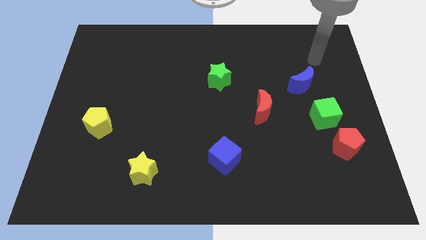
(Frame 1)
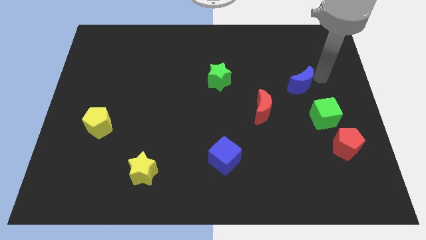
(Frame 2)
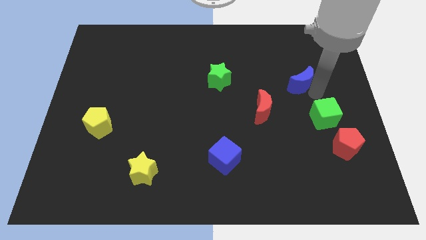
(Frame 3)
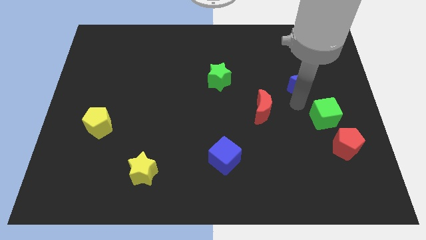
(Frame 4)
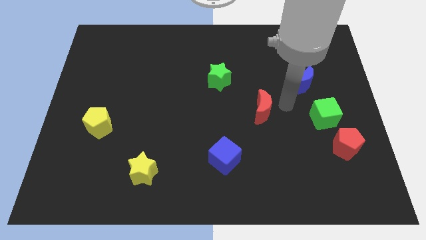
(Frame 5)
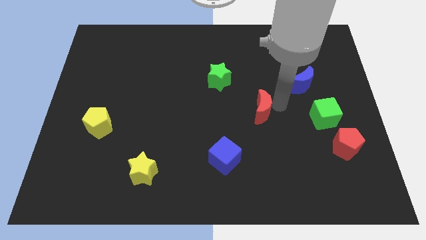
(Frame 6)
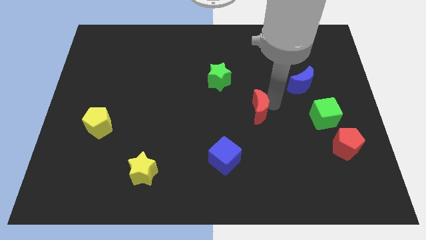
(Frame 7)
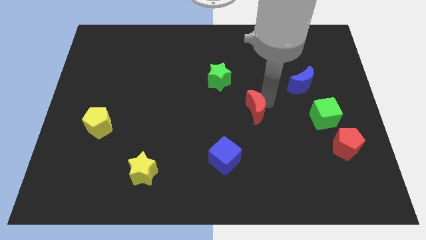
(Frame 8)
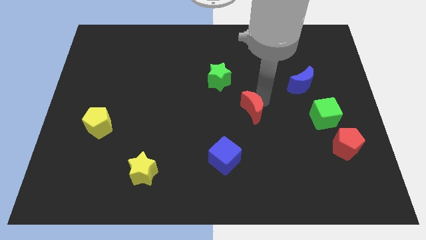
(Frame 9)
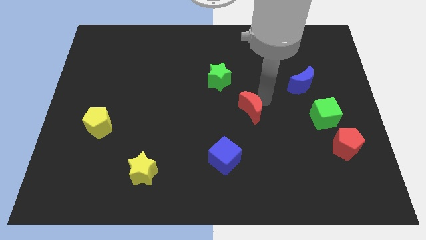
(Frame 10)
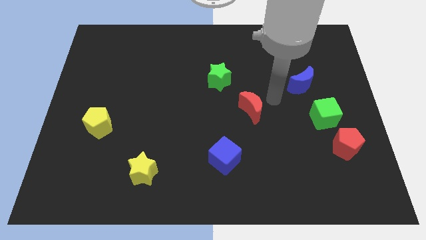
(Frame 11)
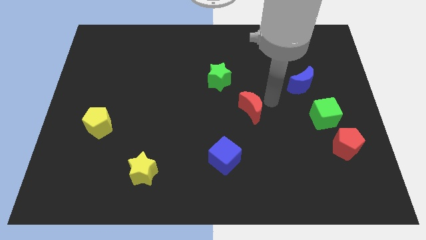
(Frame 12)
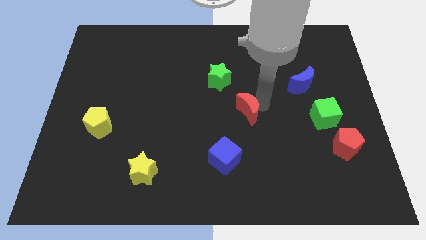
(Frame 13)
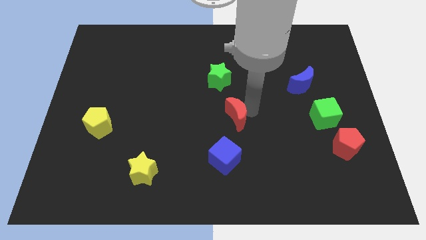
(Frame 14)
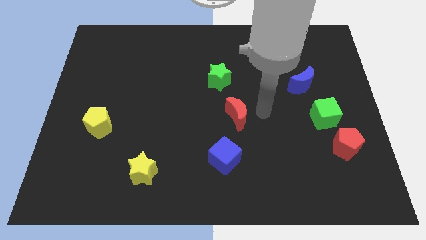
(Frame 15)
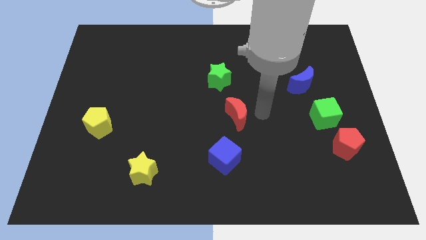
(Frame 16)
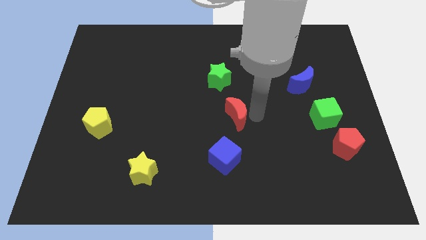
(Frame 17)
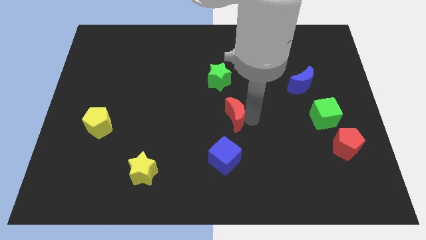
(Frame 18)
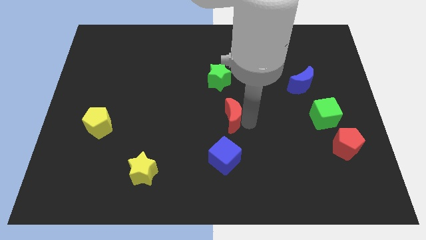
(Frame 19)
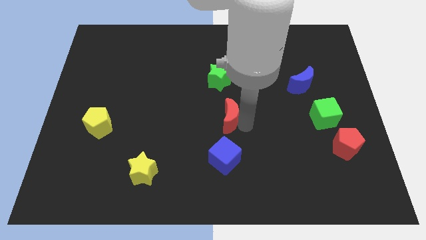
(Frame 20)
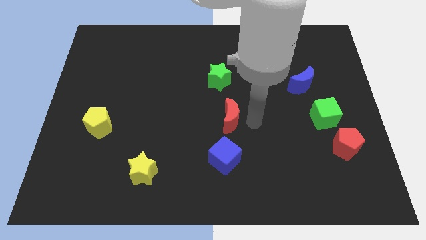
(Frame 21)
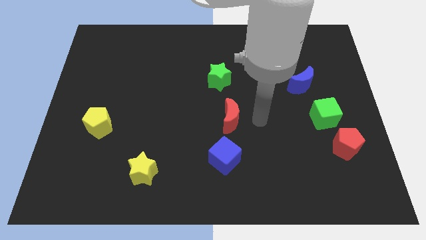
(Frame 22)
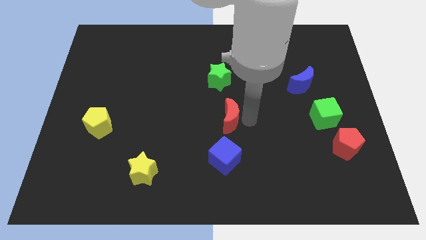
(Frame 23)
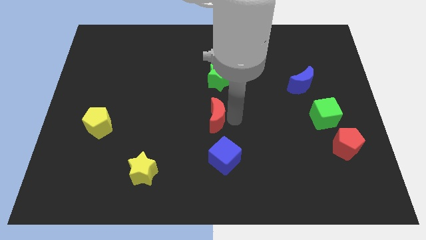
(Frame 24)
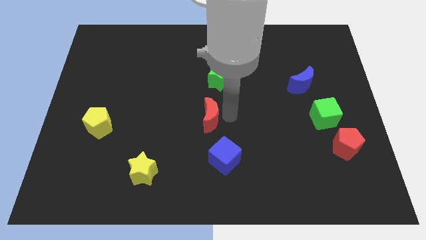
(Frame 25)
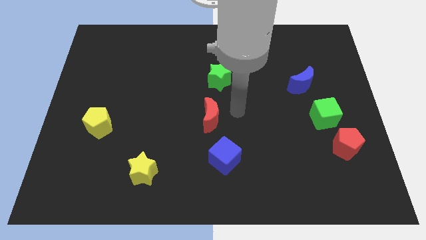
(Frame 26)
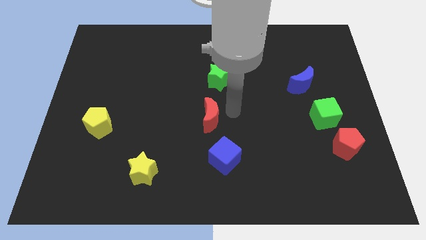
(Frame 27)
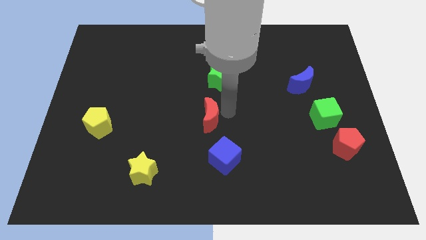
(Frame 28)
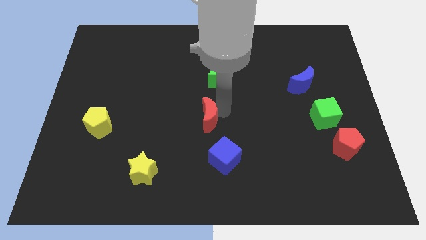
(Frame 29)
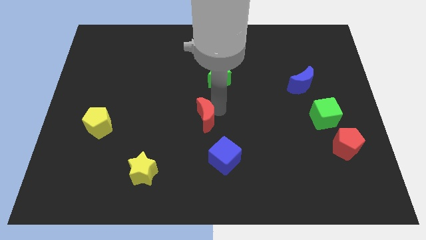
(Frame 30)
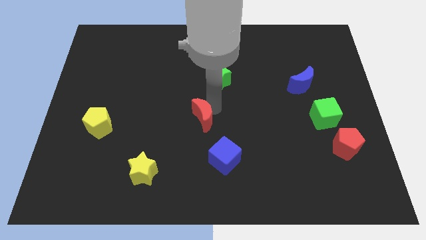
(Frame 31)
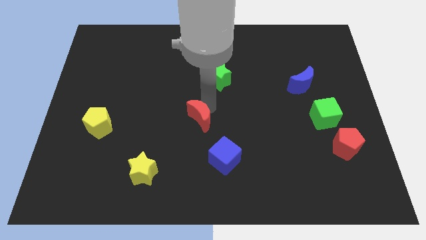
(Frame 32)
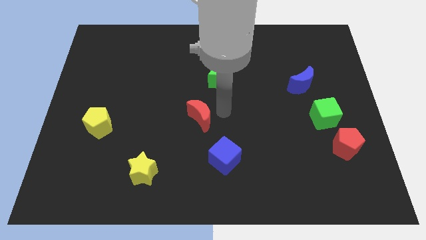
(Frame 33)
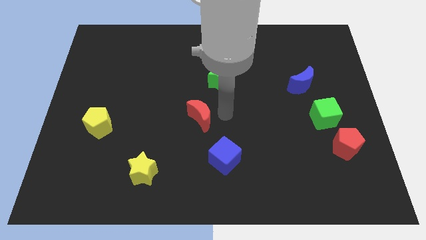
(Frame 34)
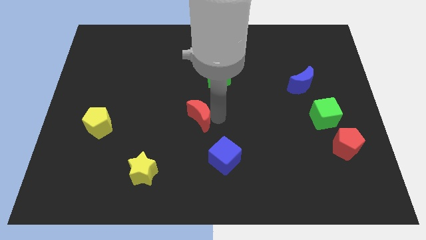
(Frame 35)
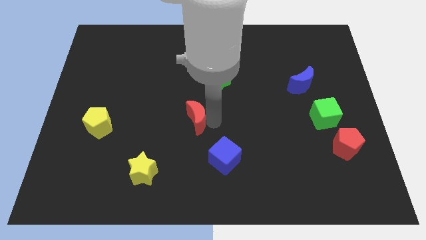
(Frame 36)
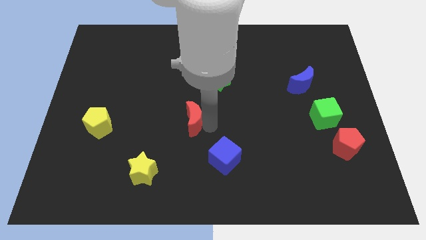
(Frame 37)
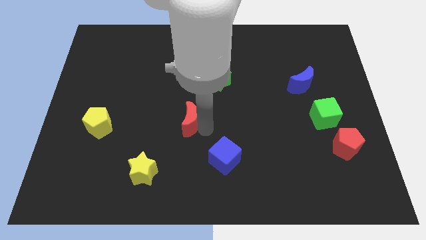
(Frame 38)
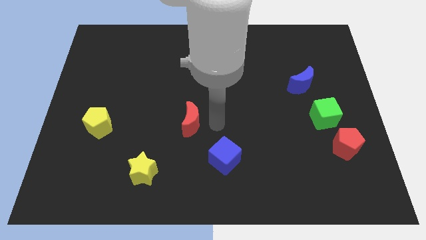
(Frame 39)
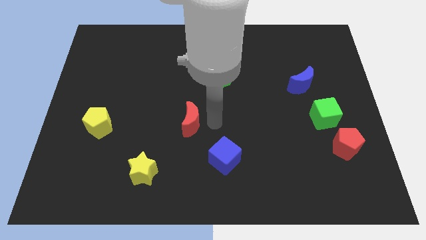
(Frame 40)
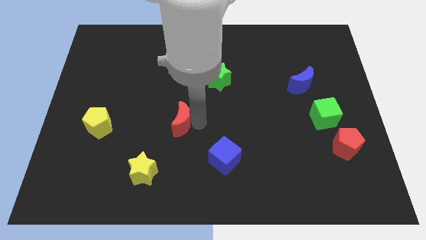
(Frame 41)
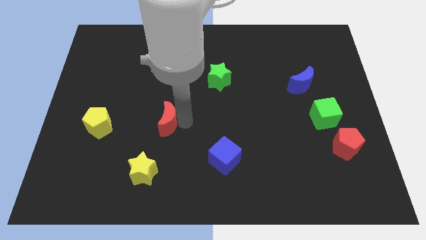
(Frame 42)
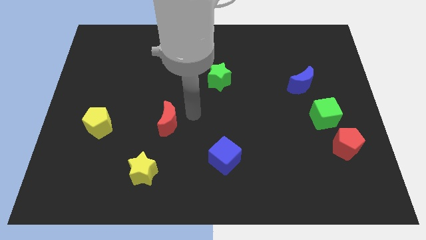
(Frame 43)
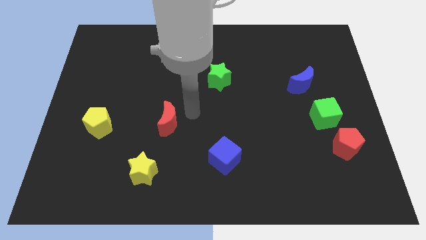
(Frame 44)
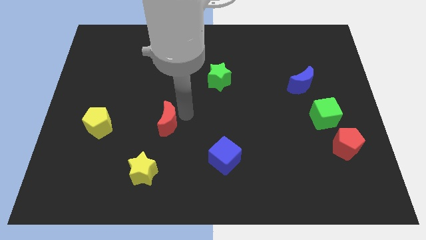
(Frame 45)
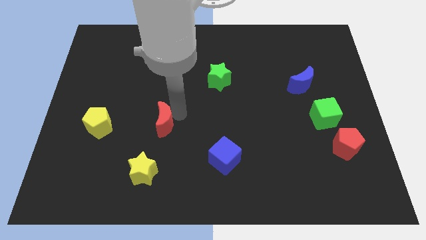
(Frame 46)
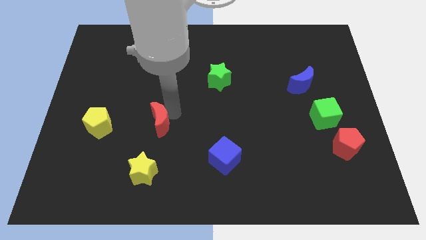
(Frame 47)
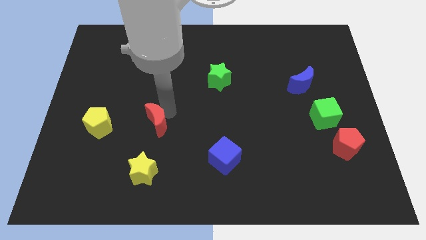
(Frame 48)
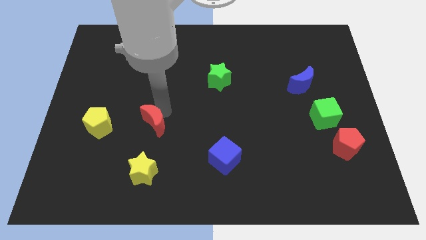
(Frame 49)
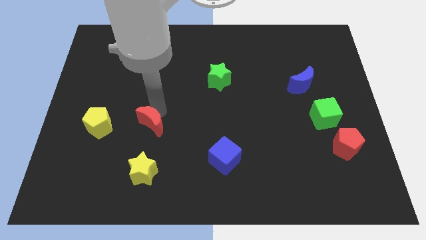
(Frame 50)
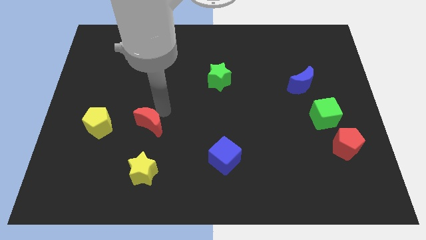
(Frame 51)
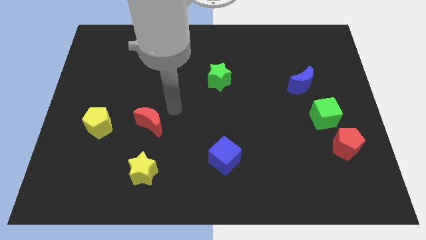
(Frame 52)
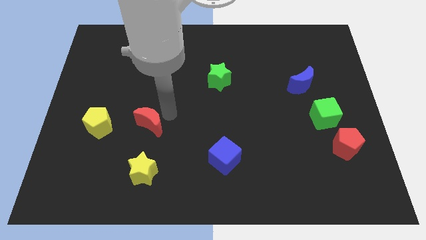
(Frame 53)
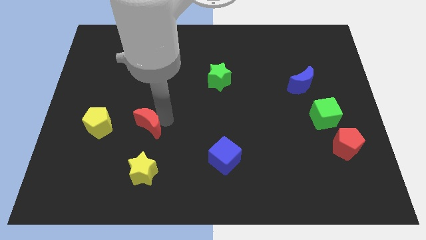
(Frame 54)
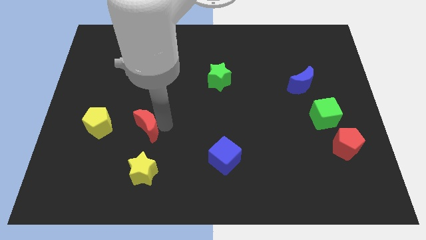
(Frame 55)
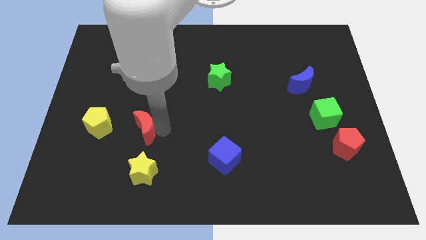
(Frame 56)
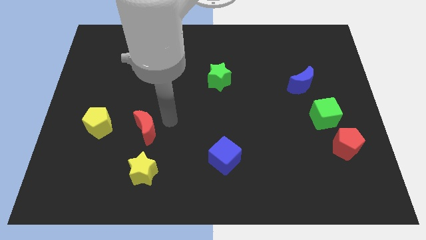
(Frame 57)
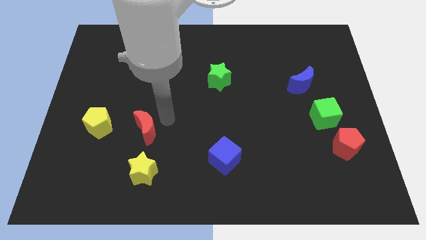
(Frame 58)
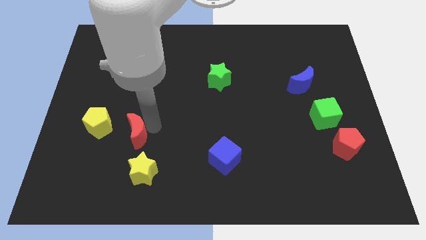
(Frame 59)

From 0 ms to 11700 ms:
move the red moon to the bottom right of the yellow pentagon

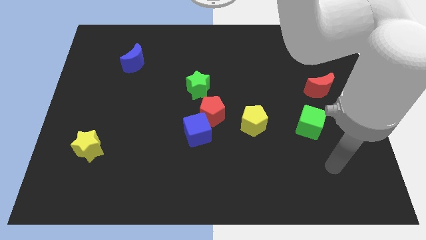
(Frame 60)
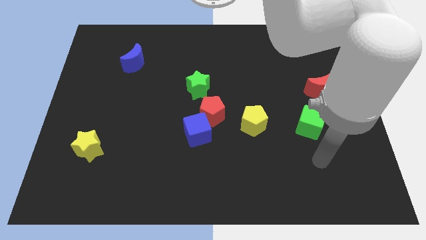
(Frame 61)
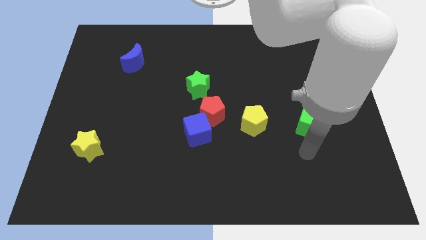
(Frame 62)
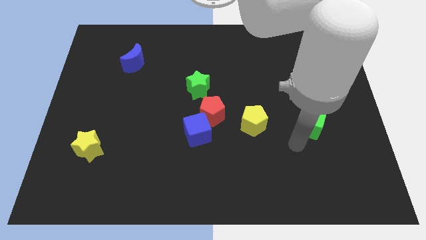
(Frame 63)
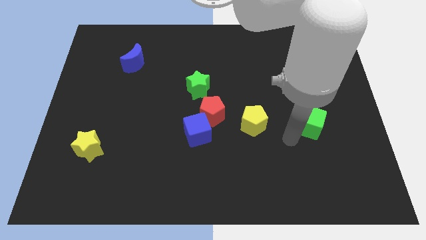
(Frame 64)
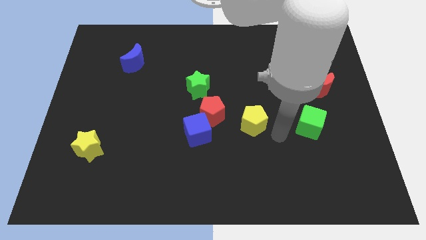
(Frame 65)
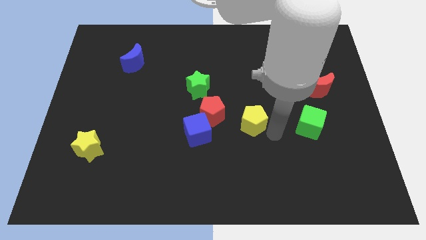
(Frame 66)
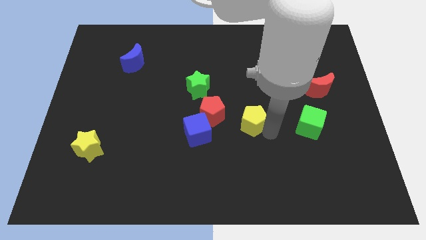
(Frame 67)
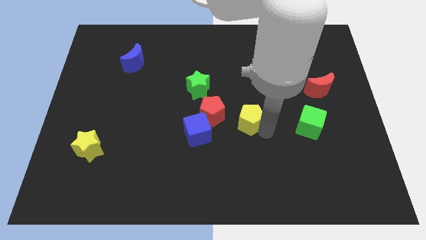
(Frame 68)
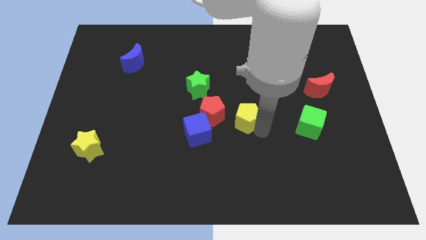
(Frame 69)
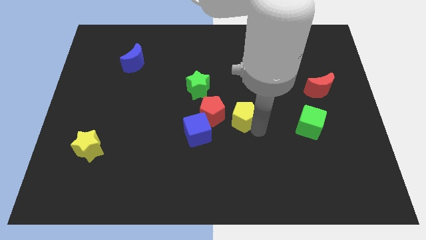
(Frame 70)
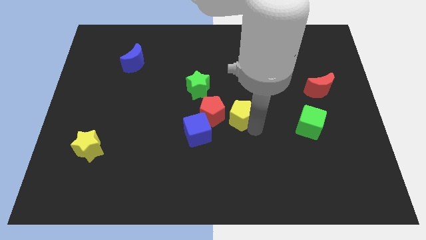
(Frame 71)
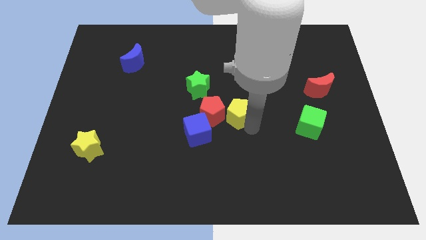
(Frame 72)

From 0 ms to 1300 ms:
push the yellow pentagon to the bottom right of the green star
